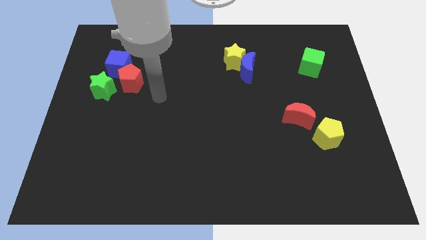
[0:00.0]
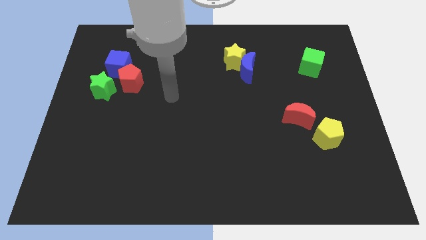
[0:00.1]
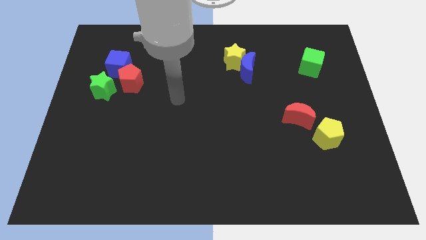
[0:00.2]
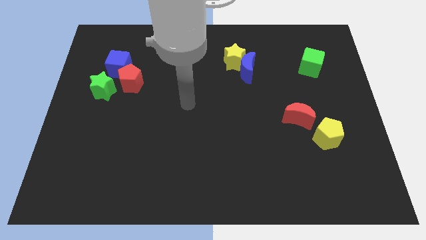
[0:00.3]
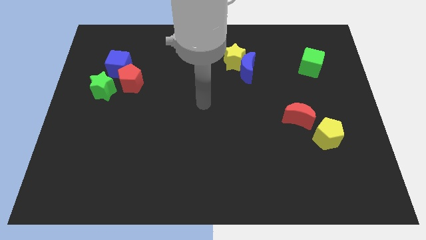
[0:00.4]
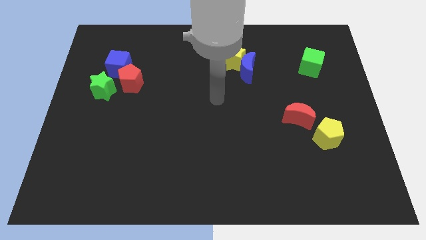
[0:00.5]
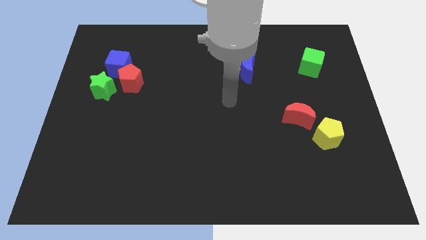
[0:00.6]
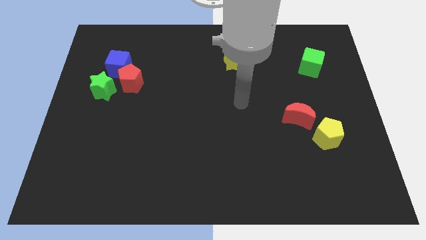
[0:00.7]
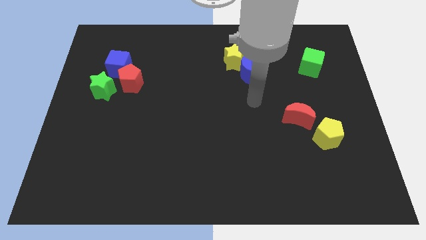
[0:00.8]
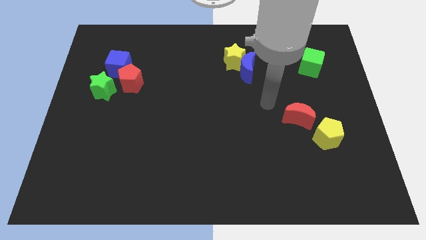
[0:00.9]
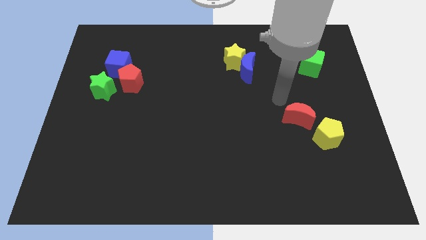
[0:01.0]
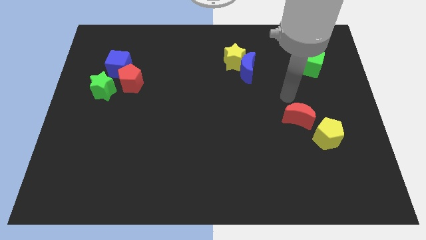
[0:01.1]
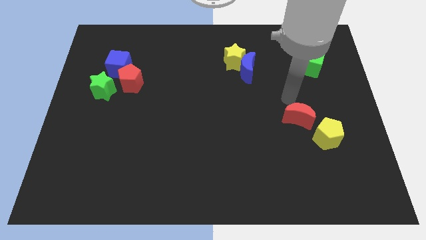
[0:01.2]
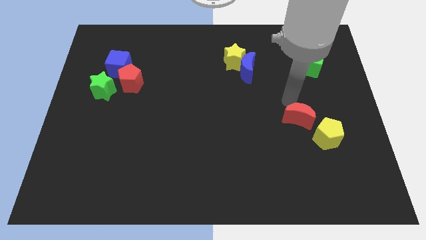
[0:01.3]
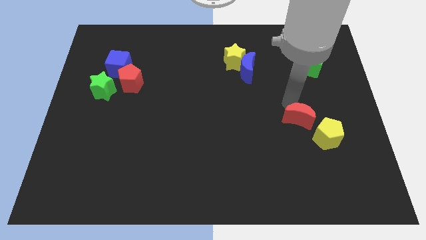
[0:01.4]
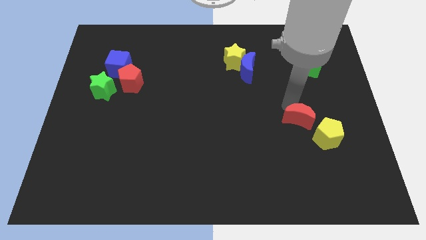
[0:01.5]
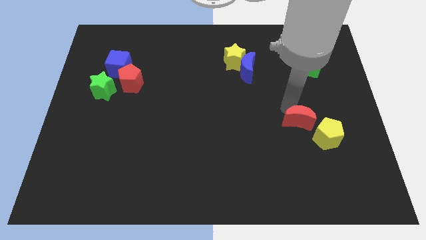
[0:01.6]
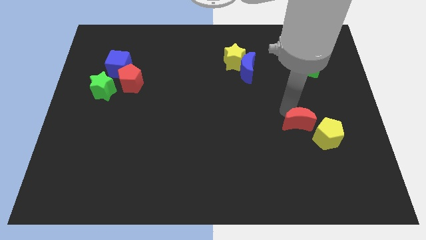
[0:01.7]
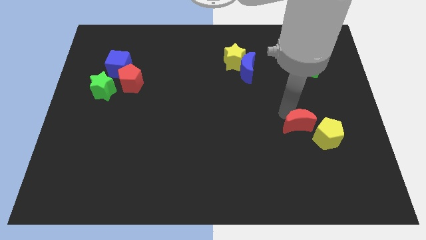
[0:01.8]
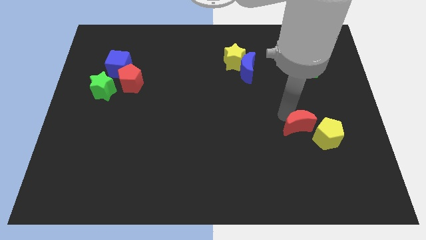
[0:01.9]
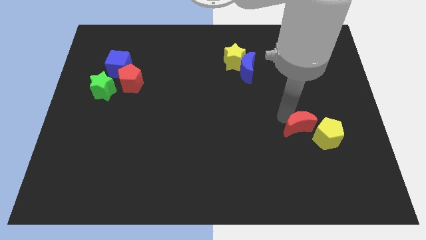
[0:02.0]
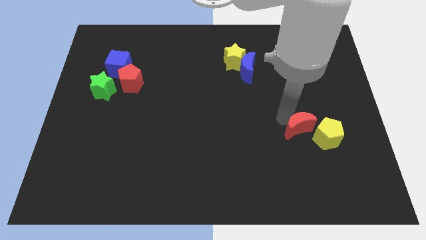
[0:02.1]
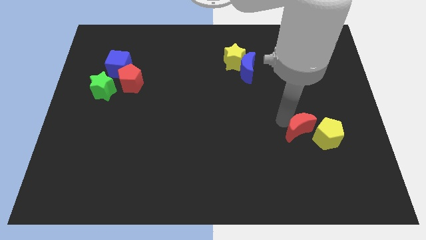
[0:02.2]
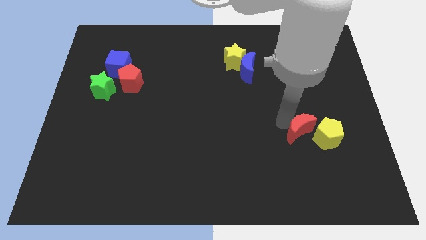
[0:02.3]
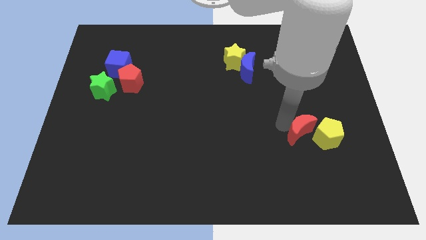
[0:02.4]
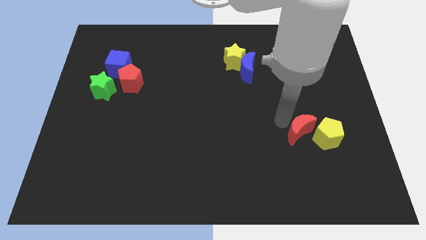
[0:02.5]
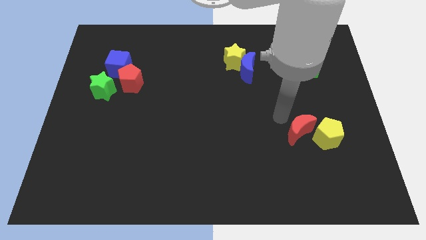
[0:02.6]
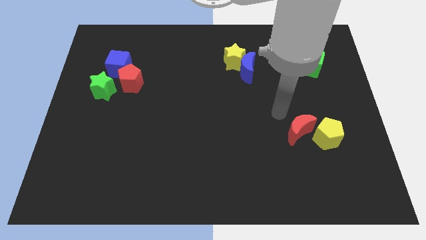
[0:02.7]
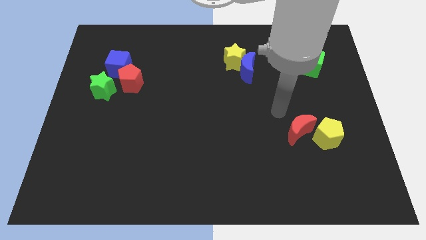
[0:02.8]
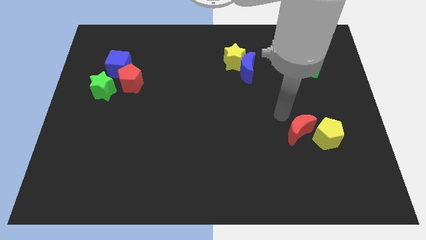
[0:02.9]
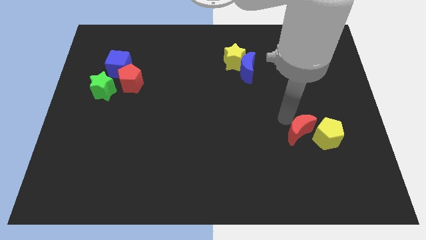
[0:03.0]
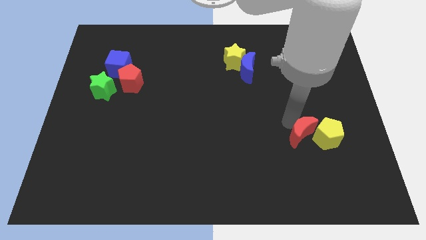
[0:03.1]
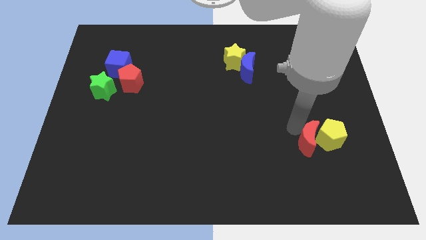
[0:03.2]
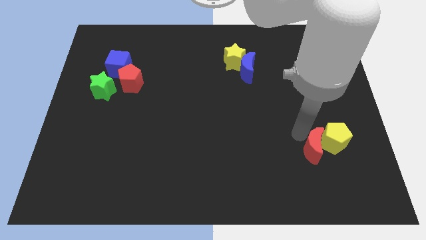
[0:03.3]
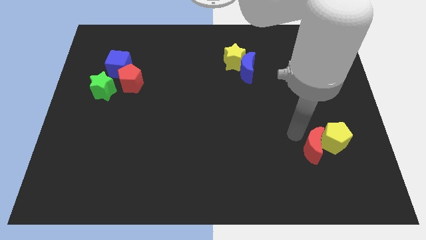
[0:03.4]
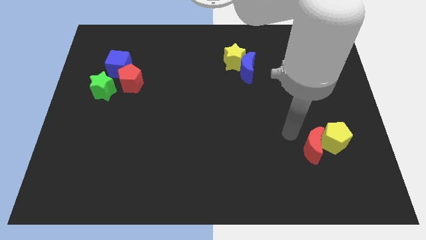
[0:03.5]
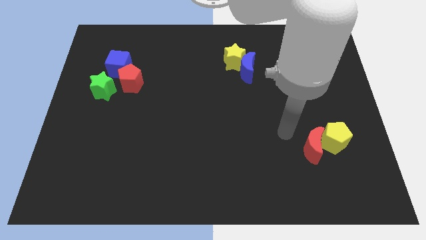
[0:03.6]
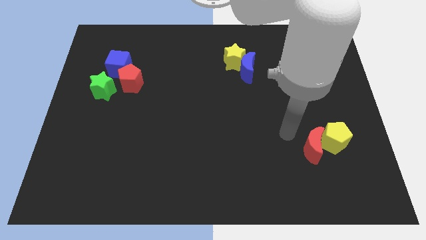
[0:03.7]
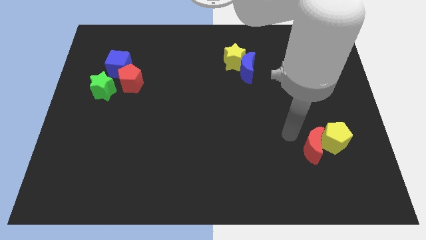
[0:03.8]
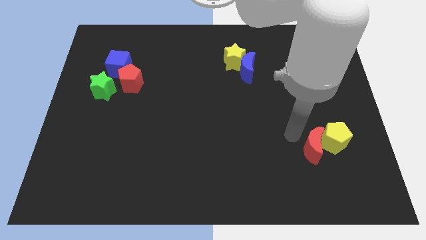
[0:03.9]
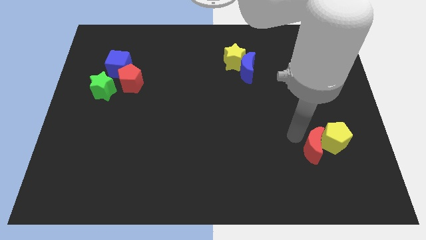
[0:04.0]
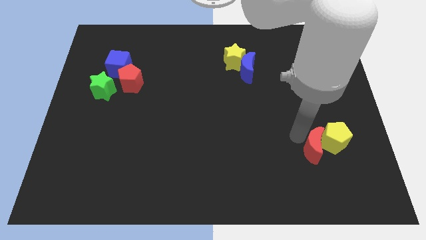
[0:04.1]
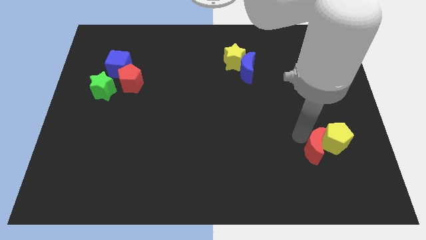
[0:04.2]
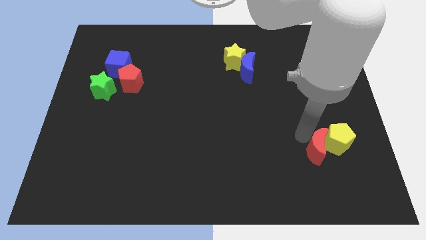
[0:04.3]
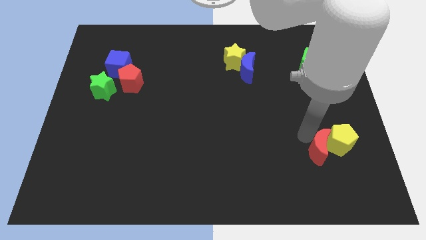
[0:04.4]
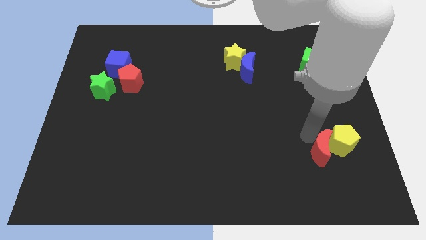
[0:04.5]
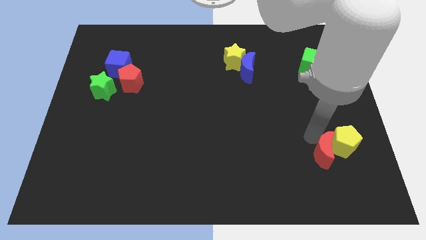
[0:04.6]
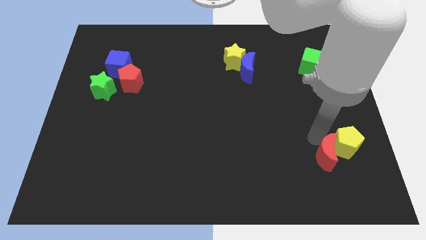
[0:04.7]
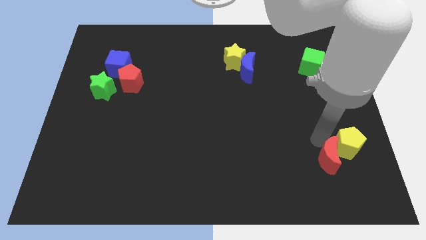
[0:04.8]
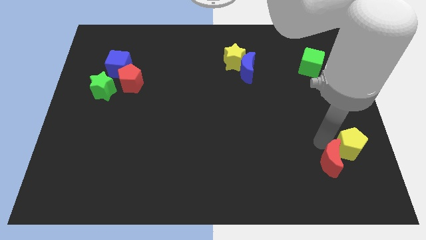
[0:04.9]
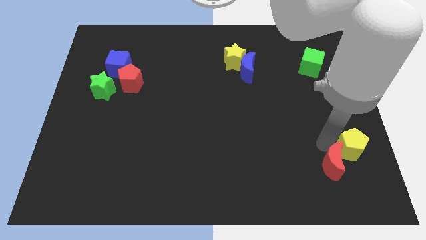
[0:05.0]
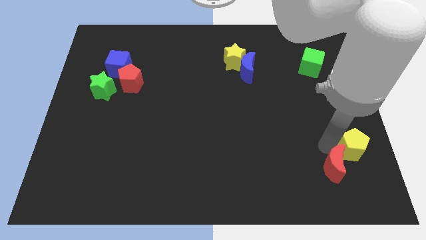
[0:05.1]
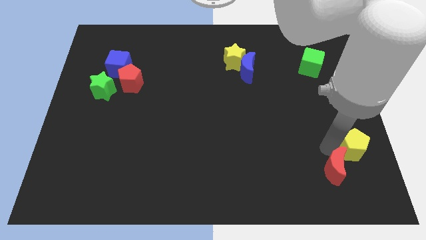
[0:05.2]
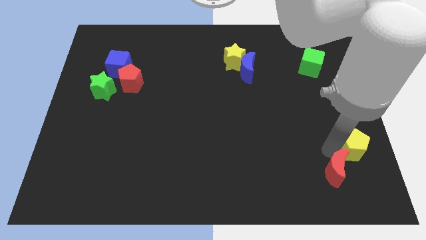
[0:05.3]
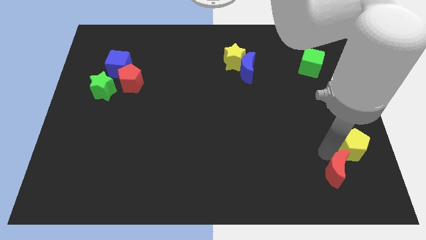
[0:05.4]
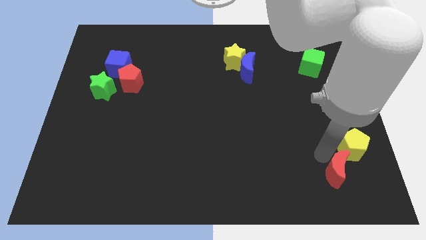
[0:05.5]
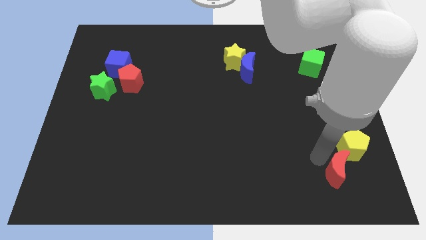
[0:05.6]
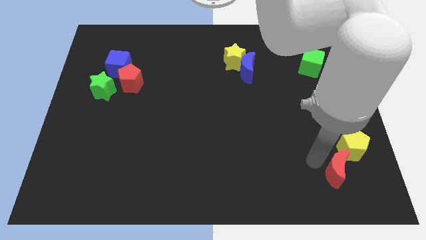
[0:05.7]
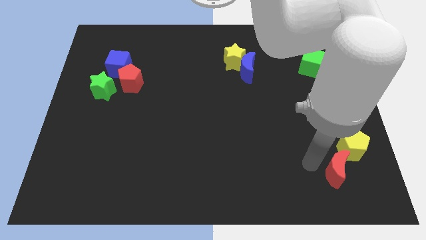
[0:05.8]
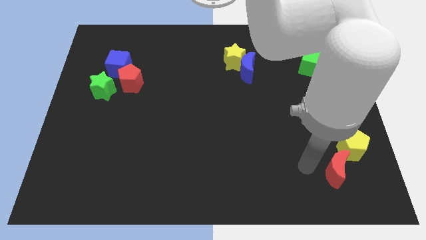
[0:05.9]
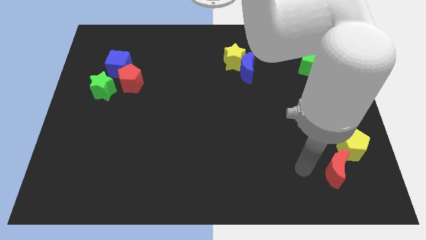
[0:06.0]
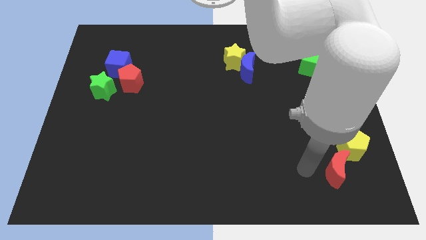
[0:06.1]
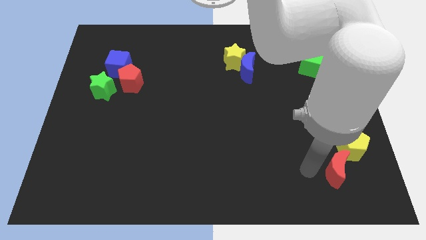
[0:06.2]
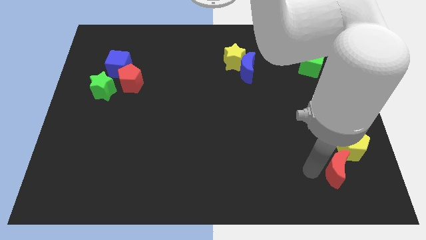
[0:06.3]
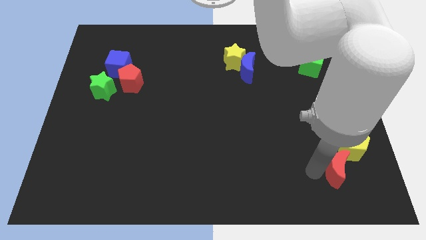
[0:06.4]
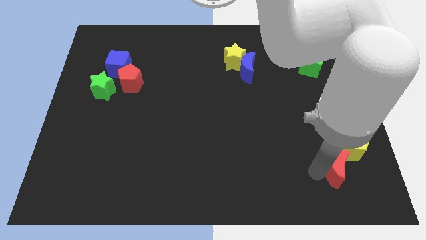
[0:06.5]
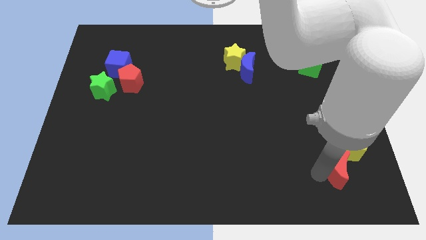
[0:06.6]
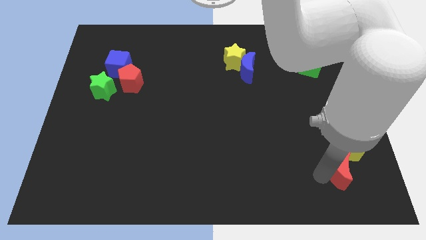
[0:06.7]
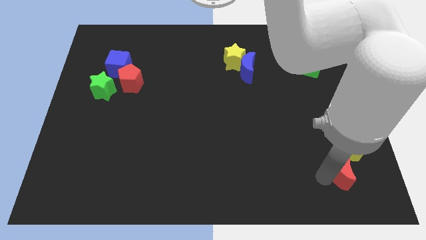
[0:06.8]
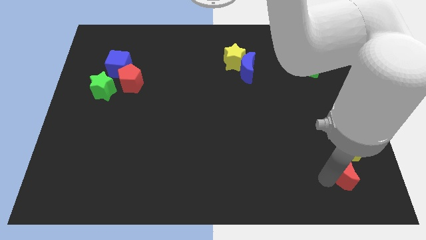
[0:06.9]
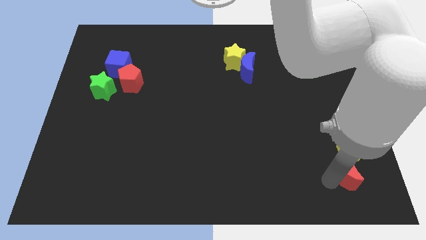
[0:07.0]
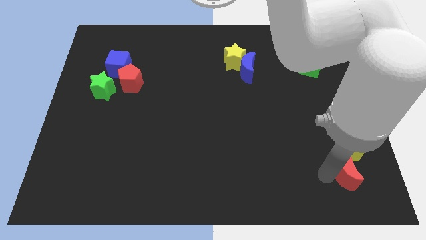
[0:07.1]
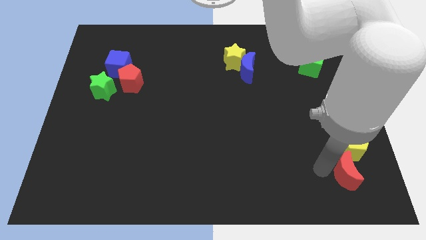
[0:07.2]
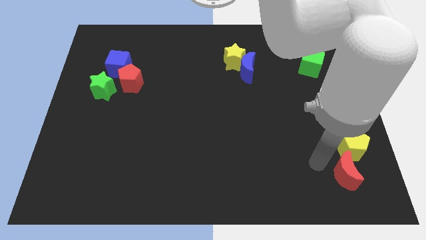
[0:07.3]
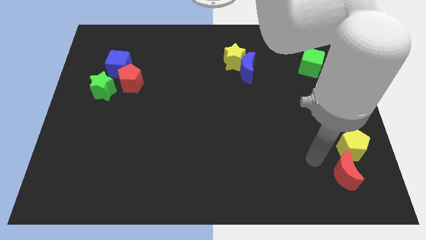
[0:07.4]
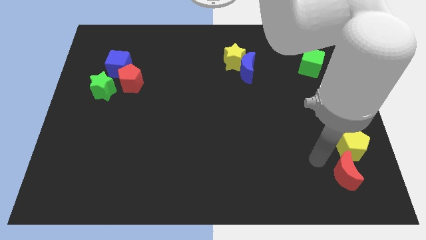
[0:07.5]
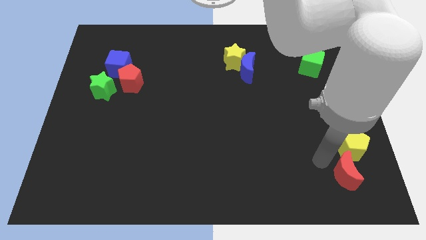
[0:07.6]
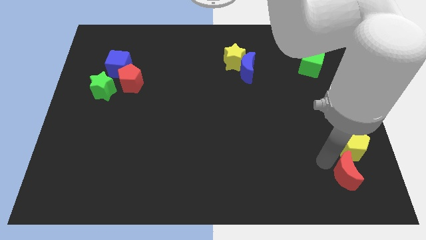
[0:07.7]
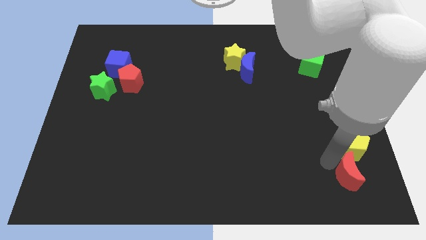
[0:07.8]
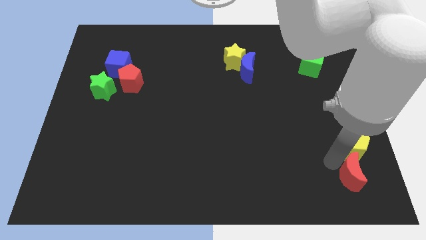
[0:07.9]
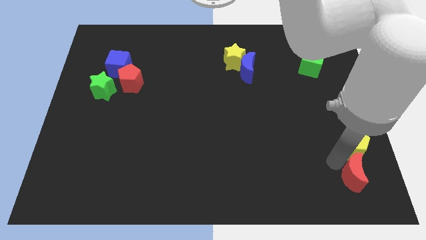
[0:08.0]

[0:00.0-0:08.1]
slide the red moon to the lower right corner
